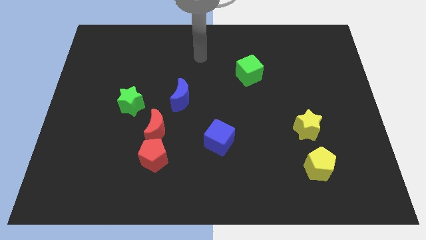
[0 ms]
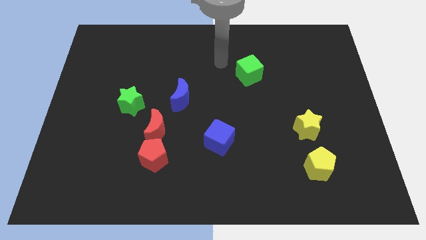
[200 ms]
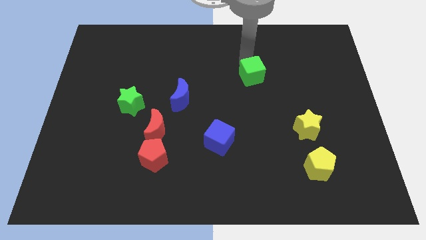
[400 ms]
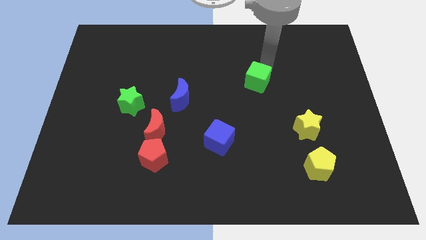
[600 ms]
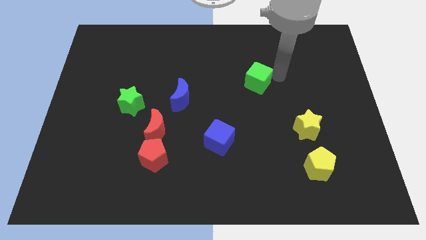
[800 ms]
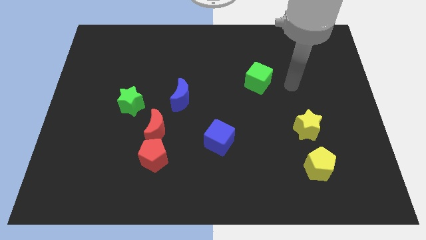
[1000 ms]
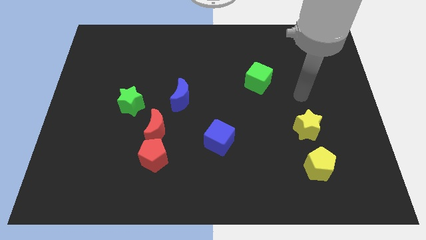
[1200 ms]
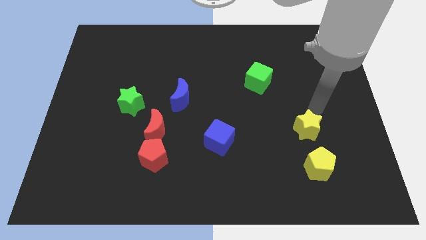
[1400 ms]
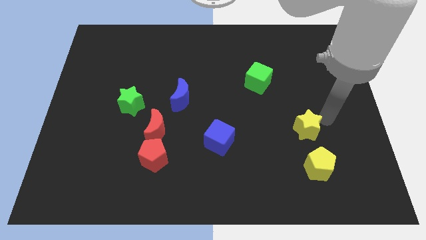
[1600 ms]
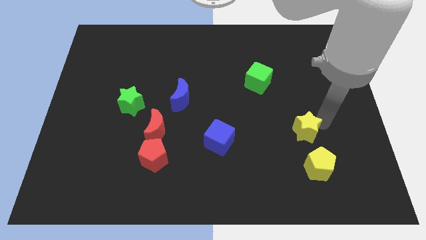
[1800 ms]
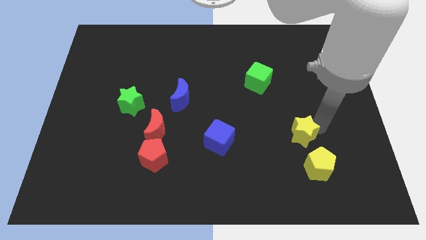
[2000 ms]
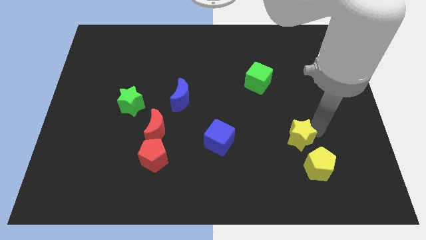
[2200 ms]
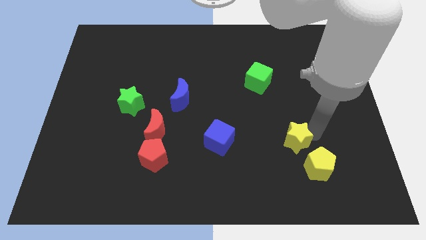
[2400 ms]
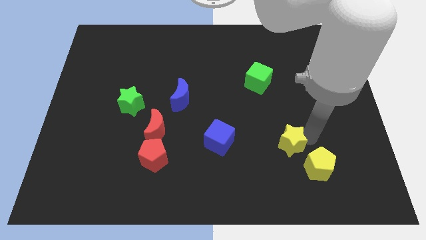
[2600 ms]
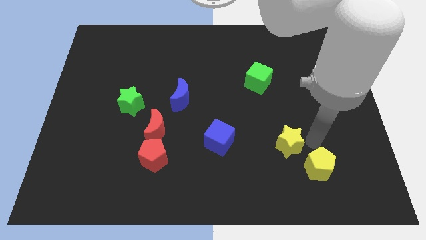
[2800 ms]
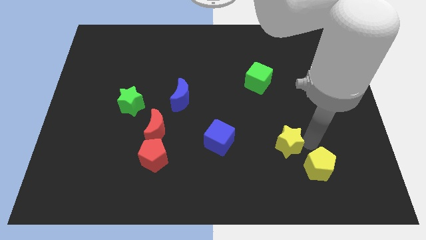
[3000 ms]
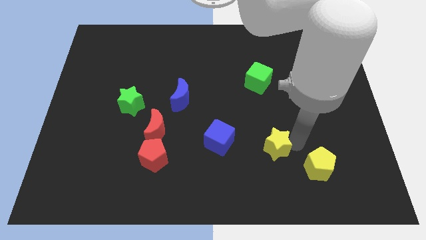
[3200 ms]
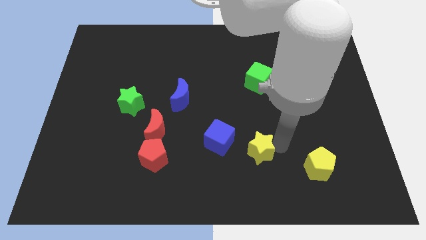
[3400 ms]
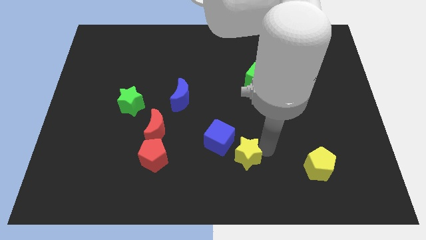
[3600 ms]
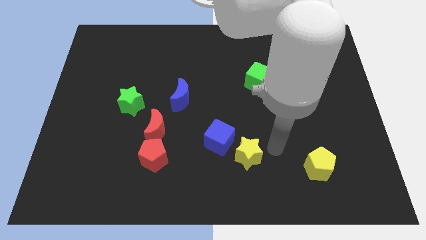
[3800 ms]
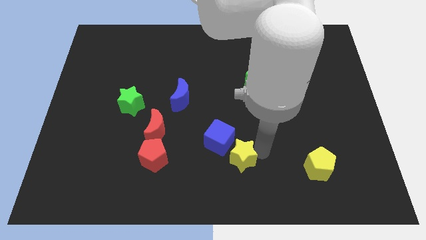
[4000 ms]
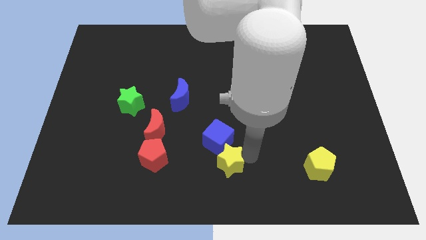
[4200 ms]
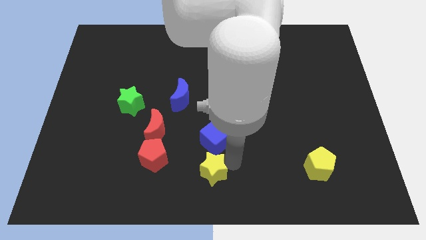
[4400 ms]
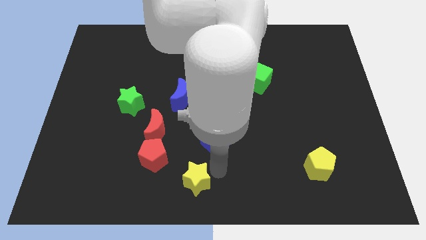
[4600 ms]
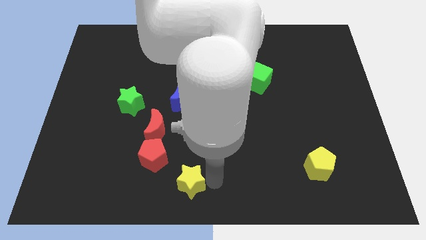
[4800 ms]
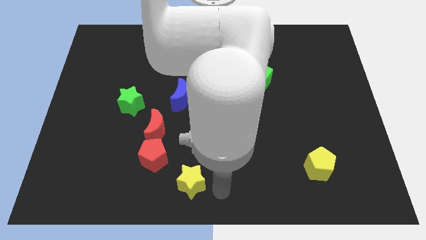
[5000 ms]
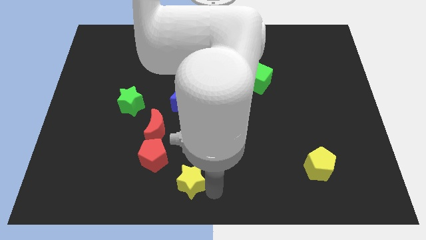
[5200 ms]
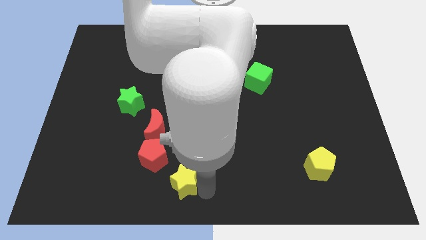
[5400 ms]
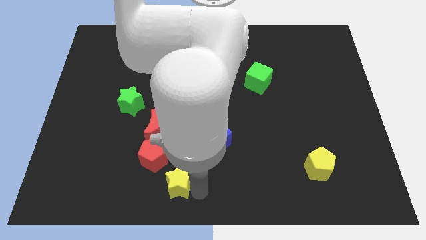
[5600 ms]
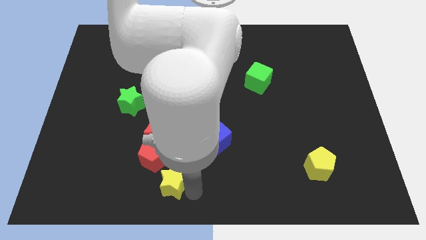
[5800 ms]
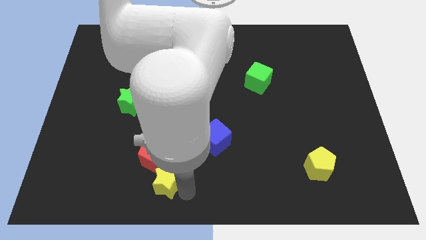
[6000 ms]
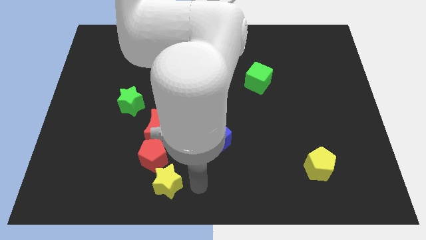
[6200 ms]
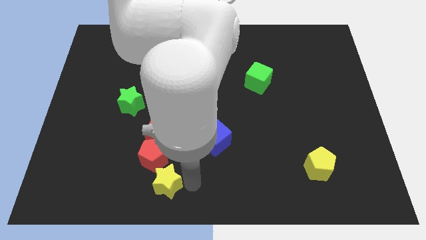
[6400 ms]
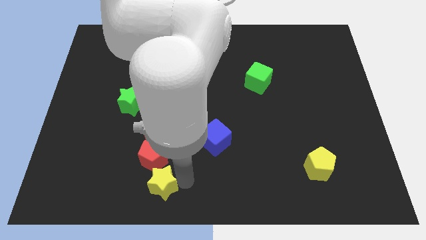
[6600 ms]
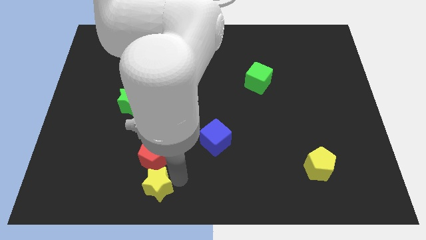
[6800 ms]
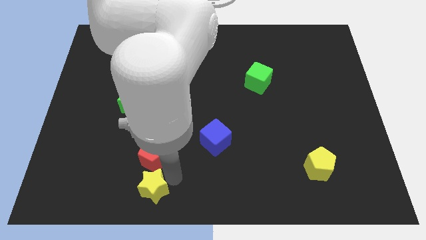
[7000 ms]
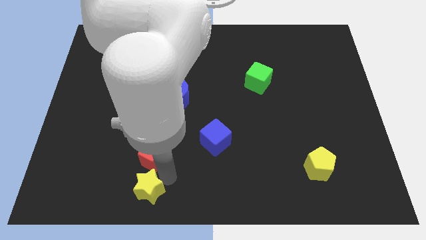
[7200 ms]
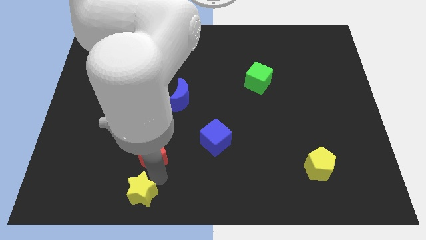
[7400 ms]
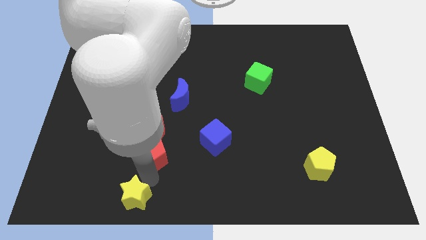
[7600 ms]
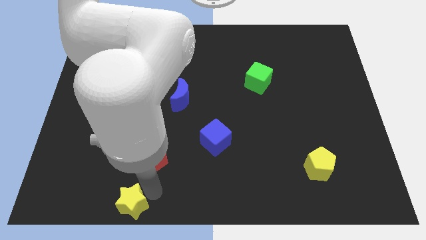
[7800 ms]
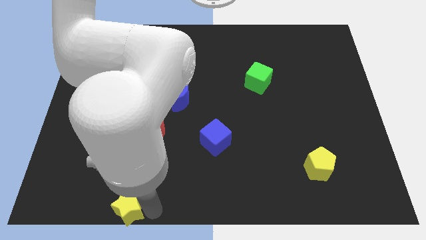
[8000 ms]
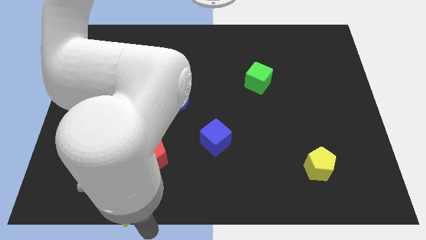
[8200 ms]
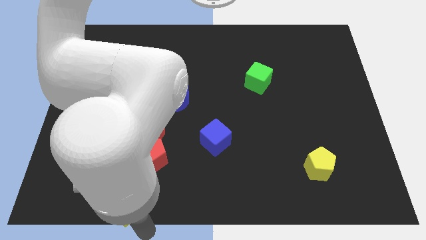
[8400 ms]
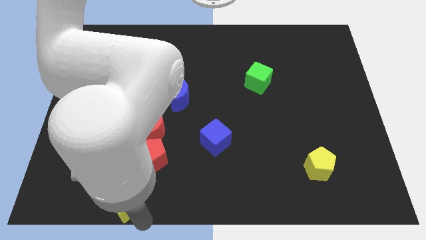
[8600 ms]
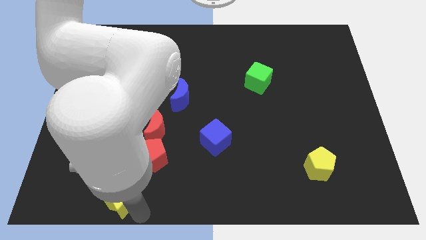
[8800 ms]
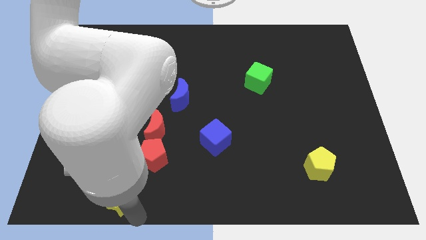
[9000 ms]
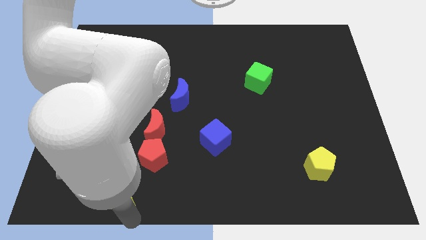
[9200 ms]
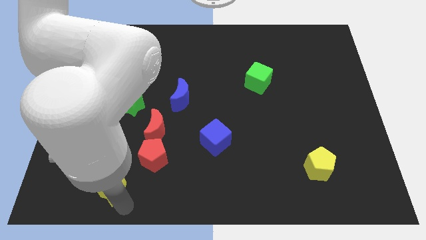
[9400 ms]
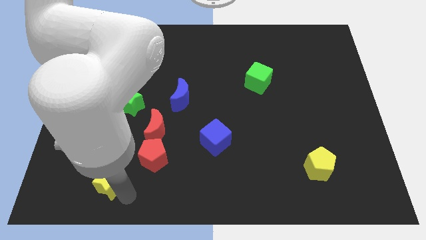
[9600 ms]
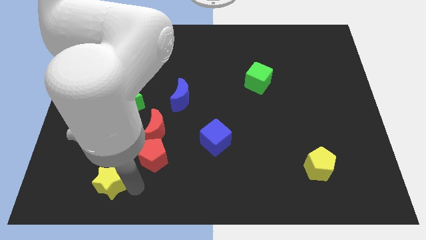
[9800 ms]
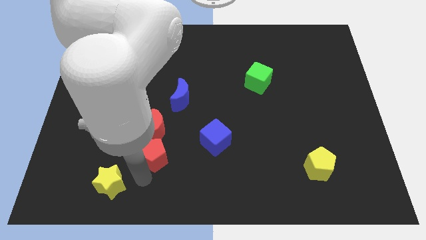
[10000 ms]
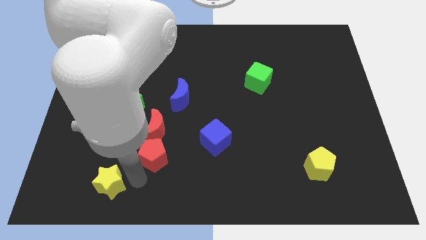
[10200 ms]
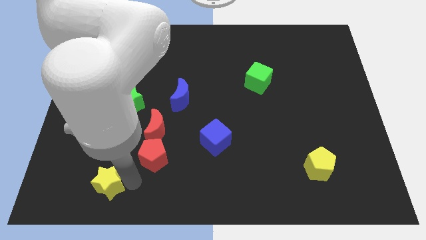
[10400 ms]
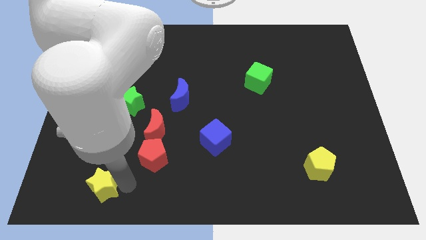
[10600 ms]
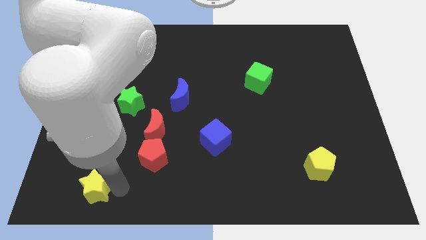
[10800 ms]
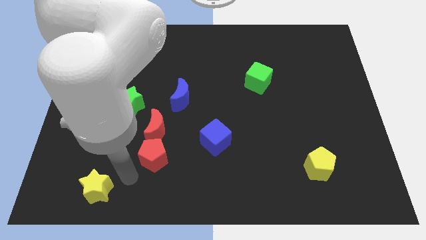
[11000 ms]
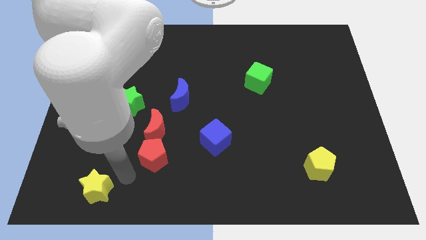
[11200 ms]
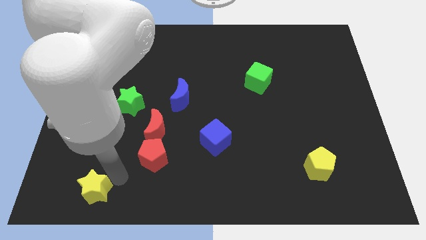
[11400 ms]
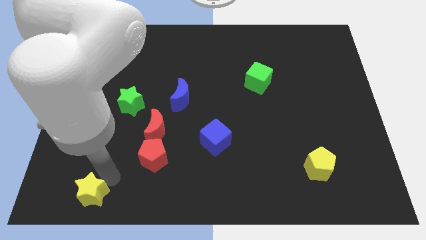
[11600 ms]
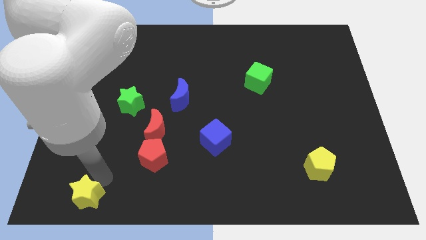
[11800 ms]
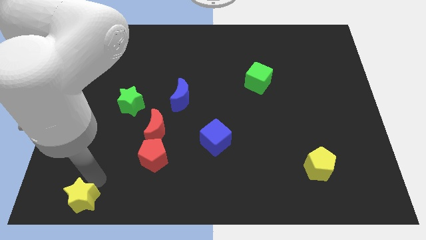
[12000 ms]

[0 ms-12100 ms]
push the yellow star to the lower left corner

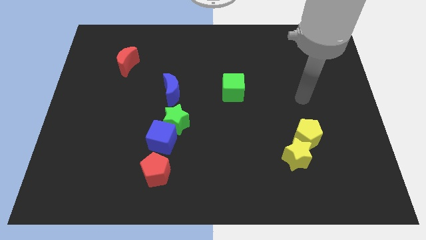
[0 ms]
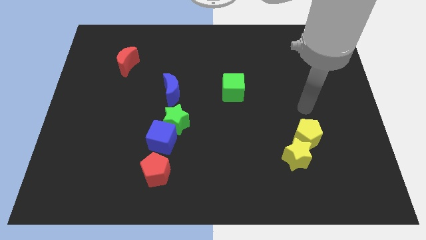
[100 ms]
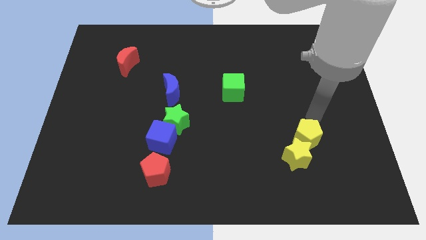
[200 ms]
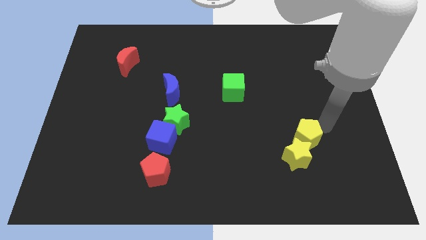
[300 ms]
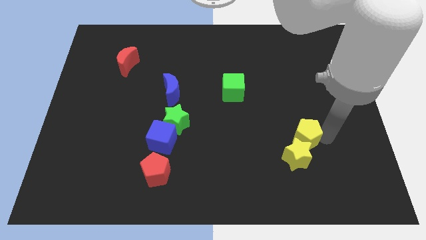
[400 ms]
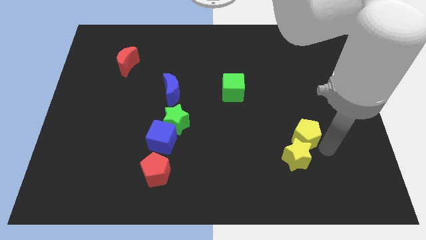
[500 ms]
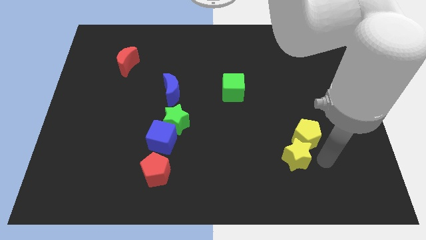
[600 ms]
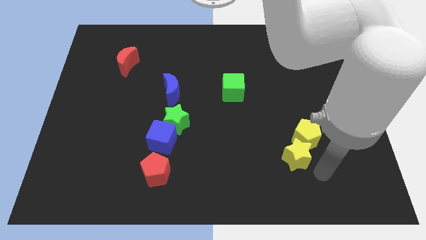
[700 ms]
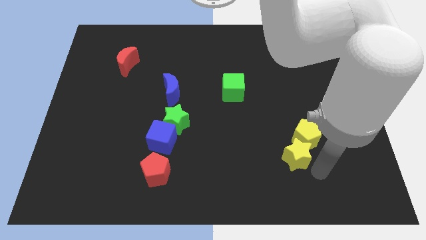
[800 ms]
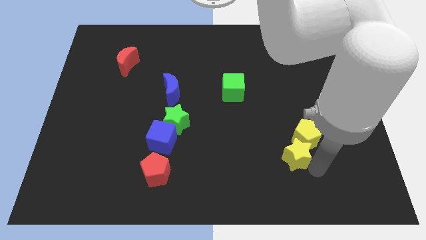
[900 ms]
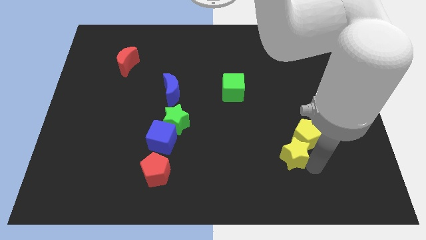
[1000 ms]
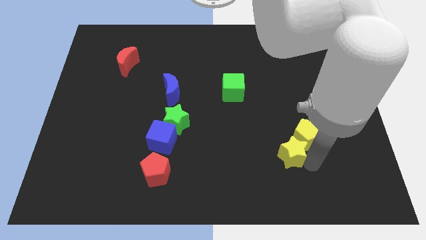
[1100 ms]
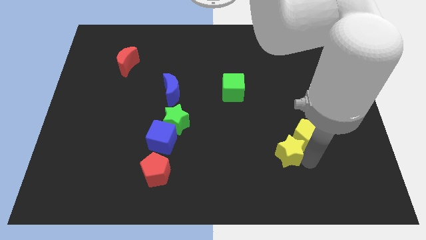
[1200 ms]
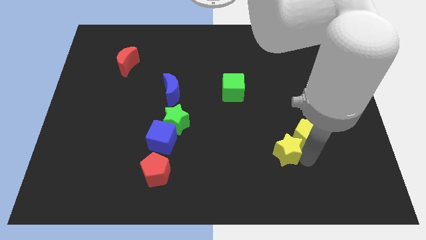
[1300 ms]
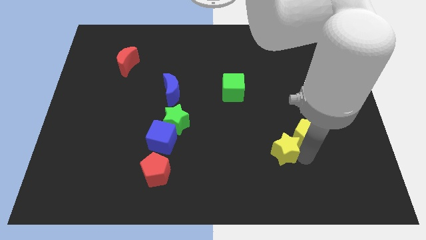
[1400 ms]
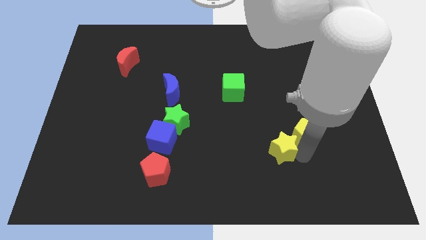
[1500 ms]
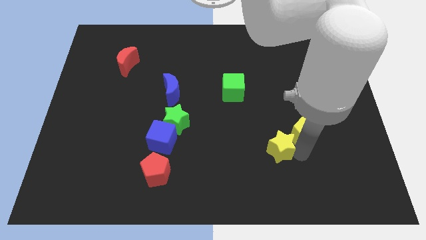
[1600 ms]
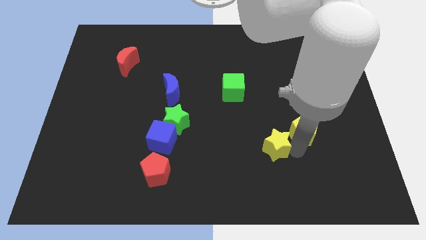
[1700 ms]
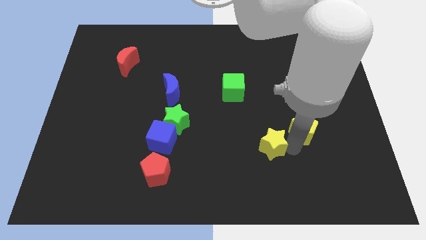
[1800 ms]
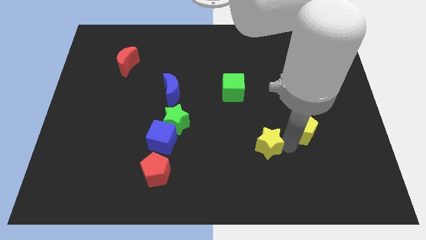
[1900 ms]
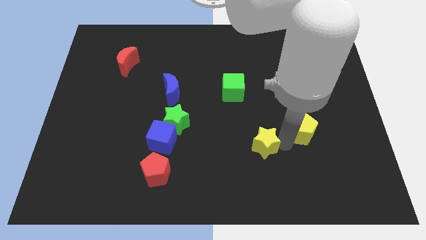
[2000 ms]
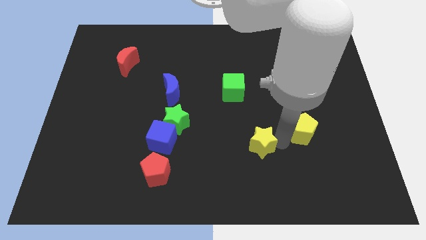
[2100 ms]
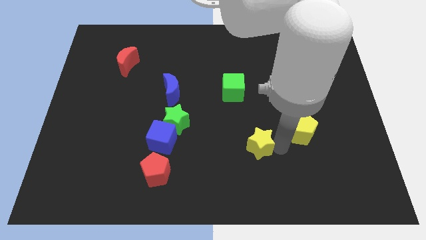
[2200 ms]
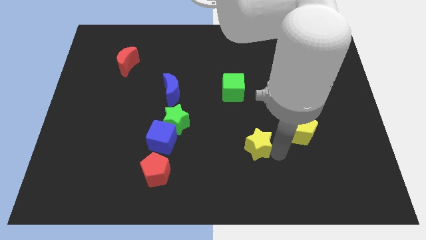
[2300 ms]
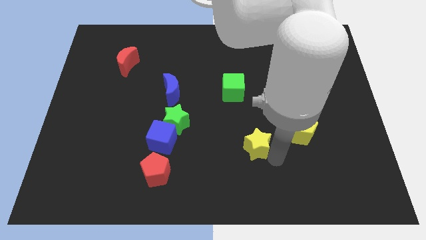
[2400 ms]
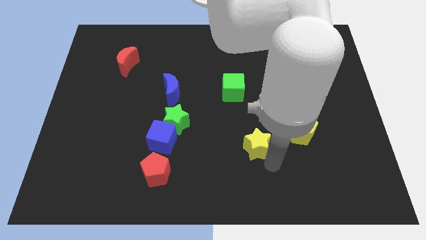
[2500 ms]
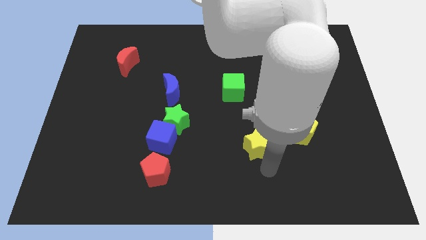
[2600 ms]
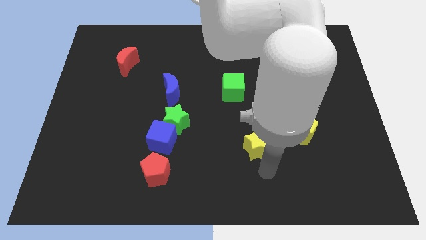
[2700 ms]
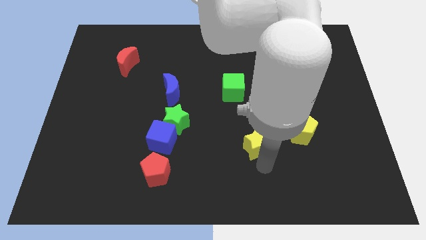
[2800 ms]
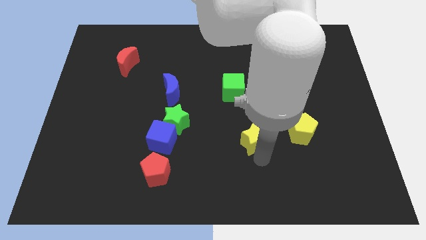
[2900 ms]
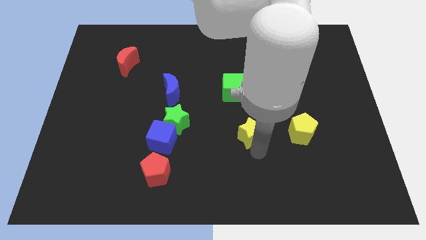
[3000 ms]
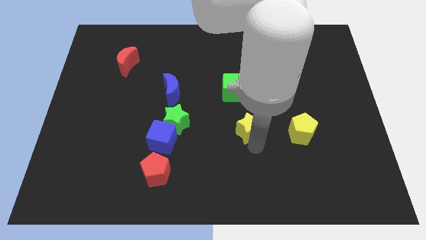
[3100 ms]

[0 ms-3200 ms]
push the yellow star to the middle
